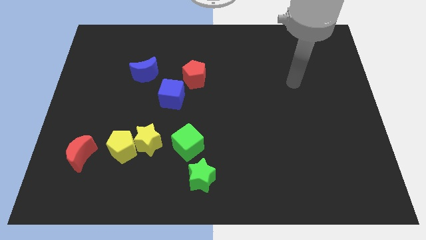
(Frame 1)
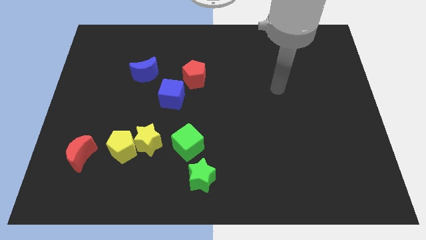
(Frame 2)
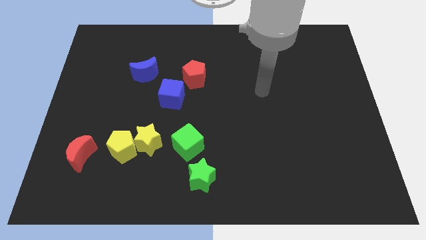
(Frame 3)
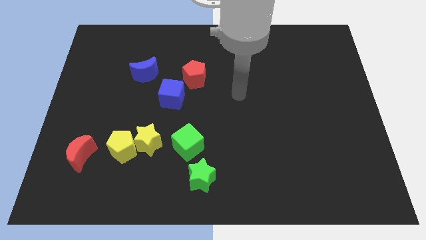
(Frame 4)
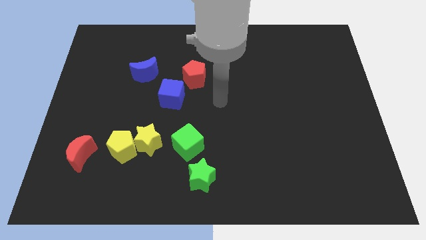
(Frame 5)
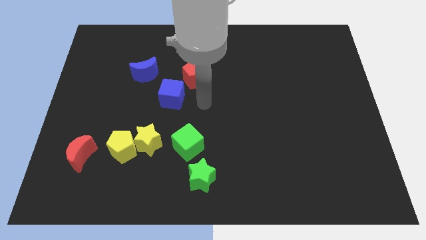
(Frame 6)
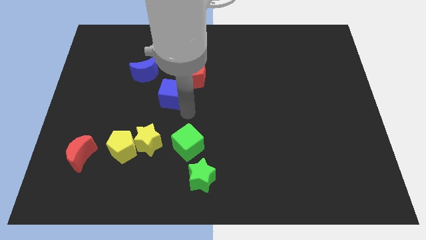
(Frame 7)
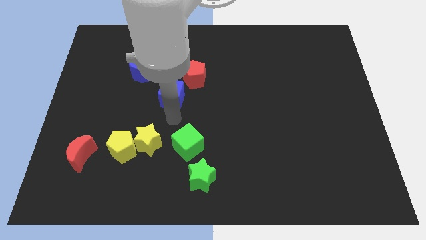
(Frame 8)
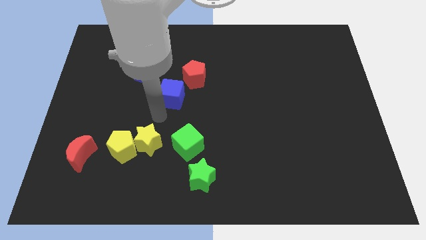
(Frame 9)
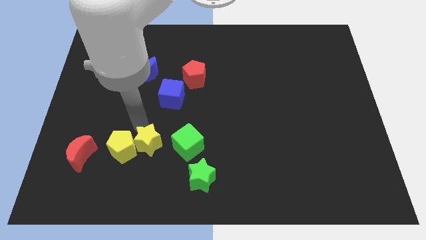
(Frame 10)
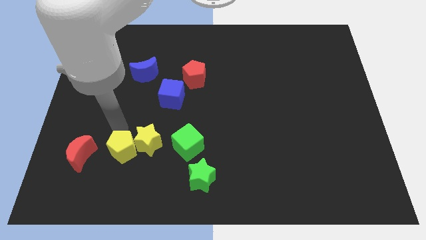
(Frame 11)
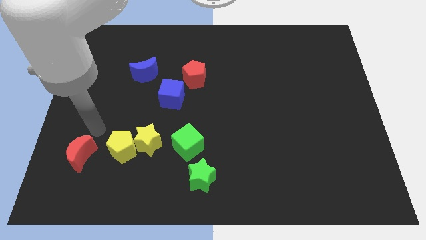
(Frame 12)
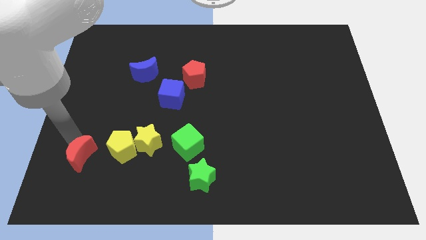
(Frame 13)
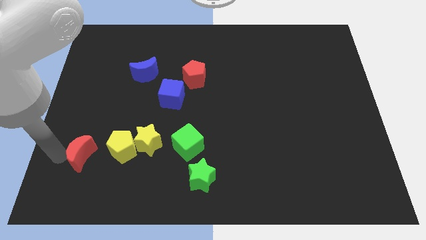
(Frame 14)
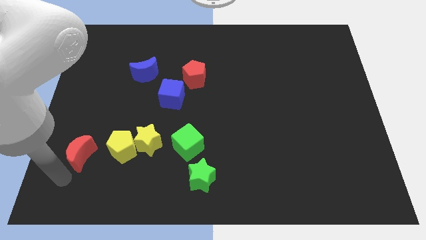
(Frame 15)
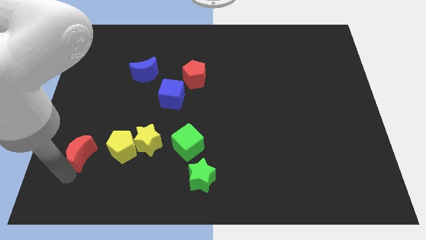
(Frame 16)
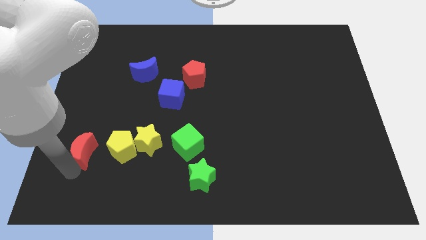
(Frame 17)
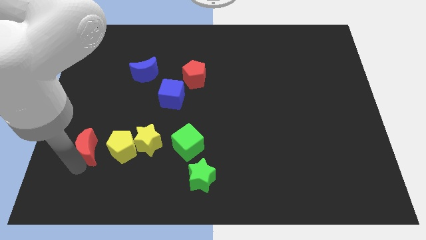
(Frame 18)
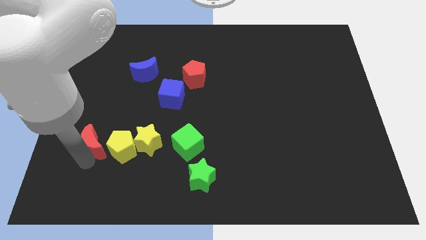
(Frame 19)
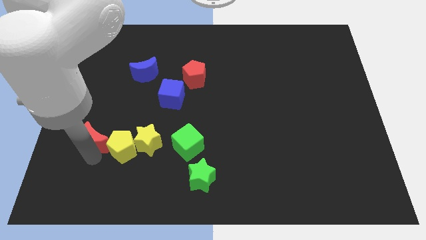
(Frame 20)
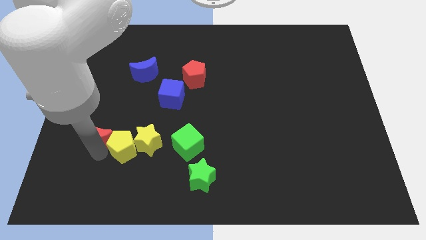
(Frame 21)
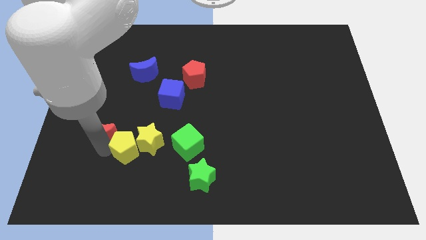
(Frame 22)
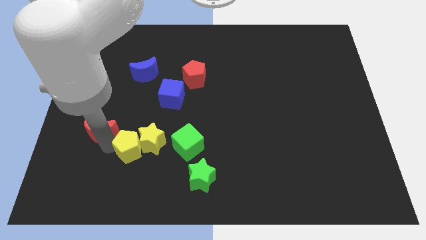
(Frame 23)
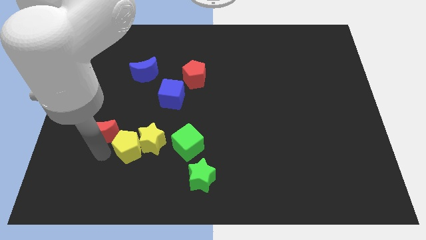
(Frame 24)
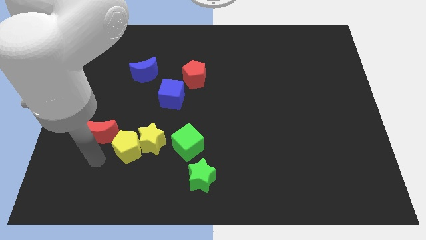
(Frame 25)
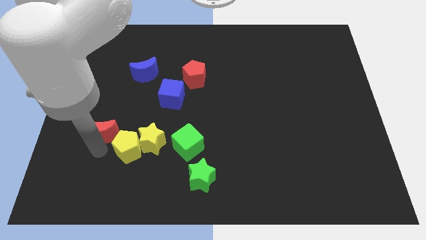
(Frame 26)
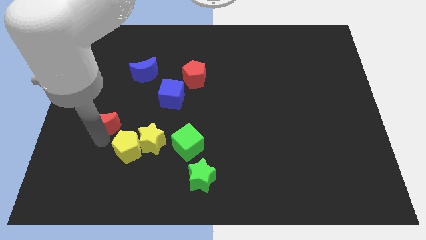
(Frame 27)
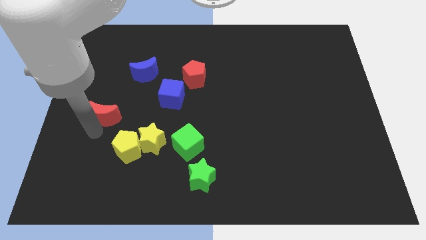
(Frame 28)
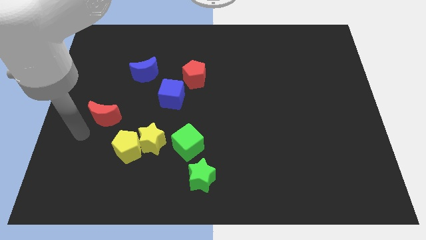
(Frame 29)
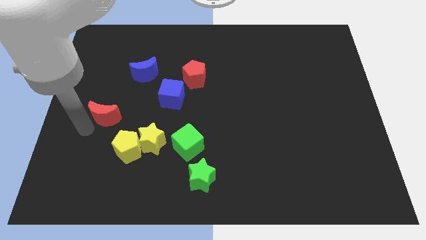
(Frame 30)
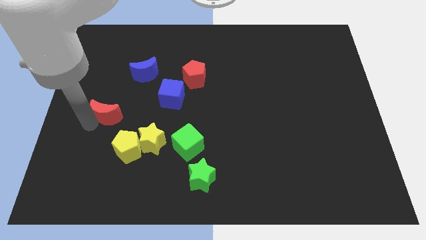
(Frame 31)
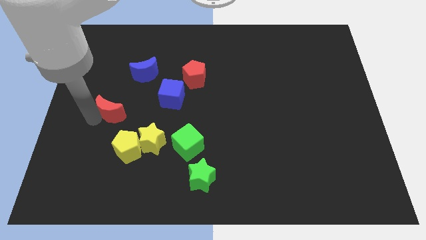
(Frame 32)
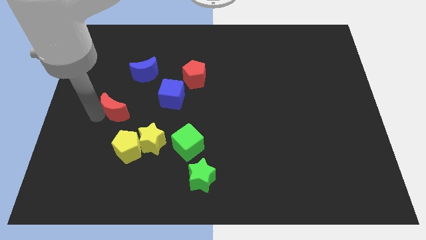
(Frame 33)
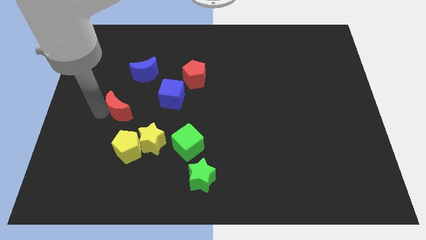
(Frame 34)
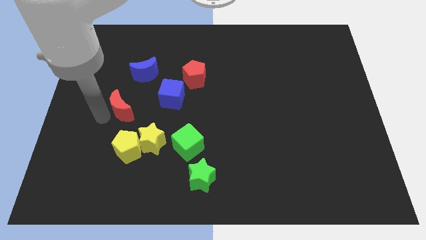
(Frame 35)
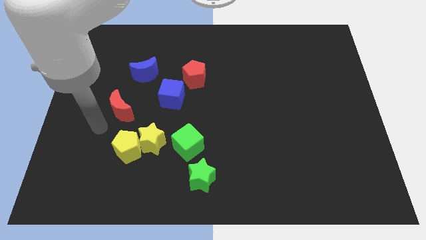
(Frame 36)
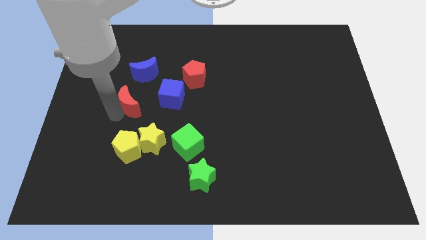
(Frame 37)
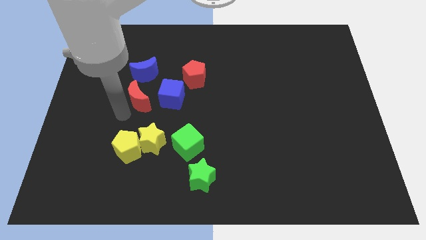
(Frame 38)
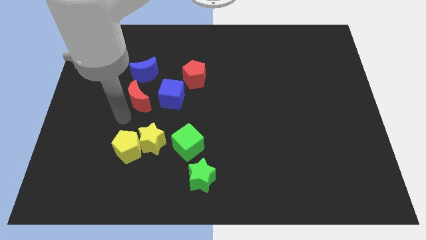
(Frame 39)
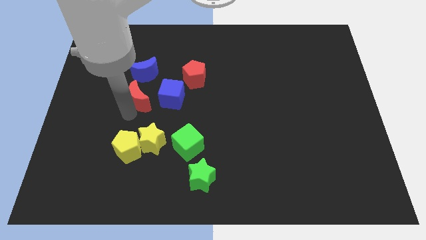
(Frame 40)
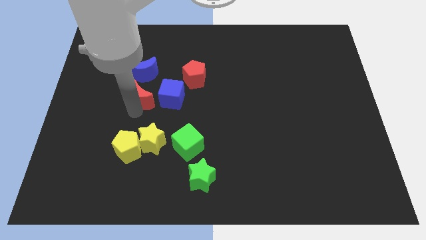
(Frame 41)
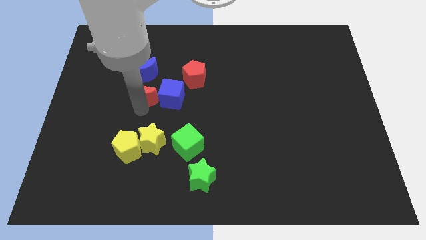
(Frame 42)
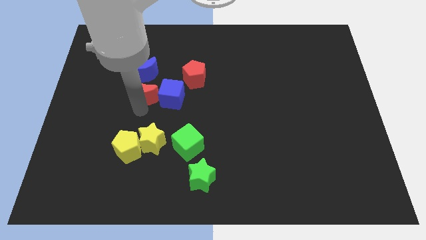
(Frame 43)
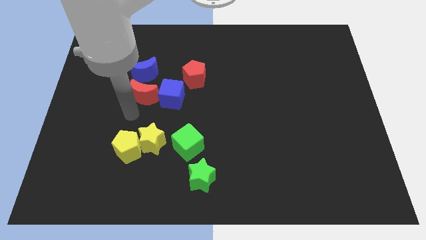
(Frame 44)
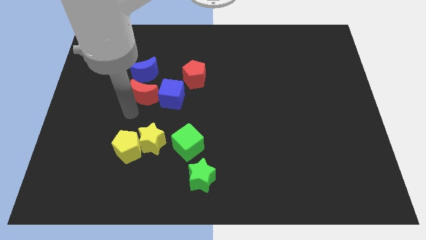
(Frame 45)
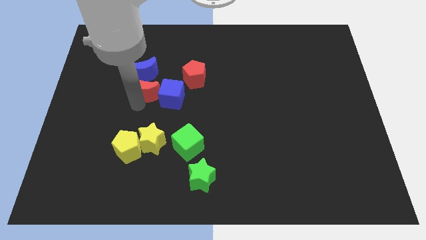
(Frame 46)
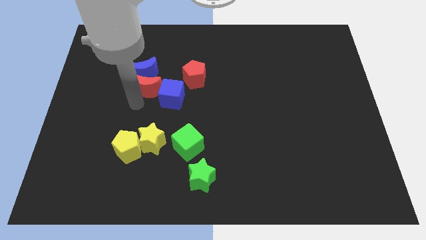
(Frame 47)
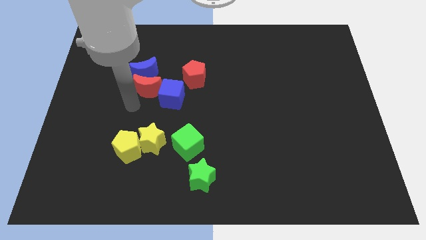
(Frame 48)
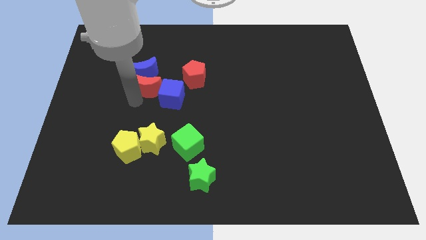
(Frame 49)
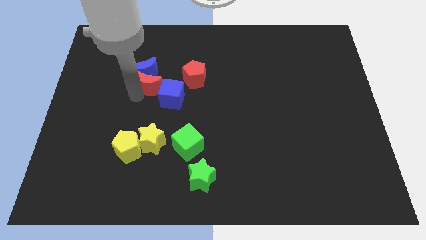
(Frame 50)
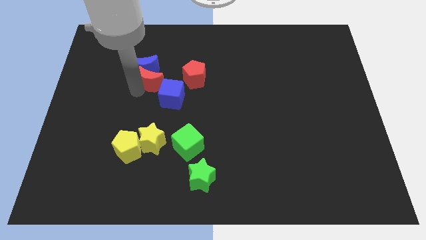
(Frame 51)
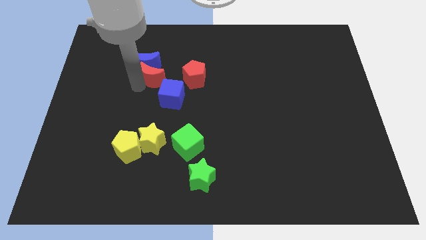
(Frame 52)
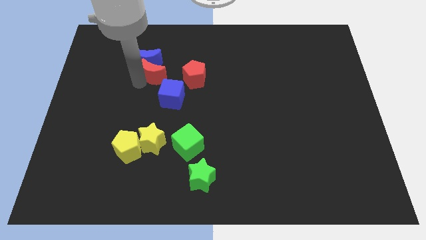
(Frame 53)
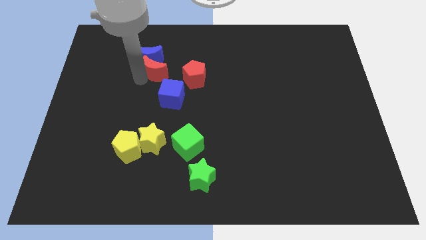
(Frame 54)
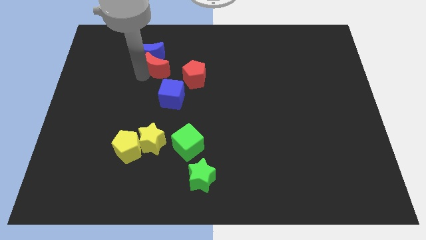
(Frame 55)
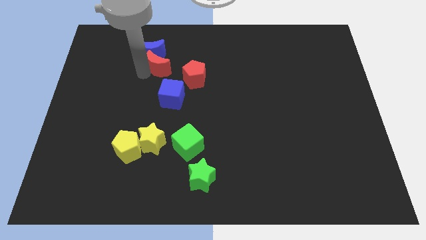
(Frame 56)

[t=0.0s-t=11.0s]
slide the red moon to the top left of the red pentagon

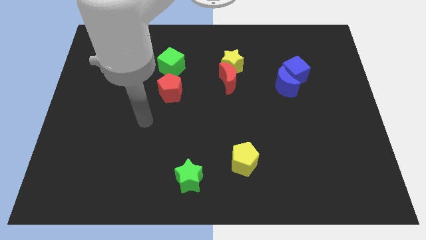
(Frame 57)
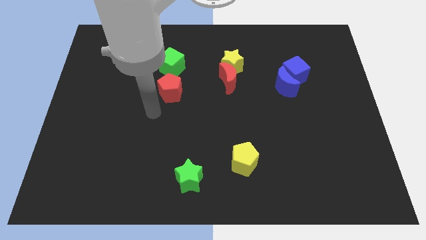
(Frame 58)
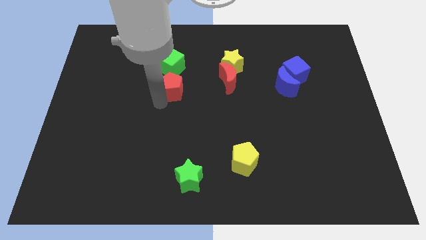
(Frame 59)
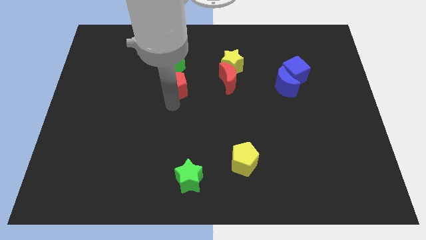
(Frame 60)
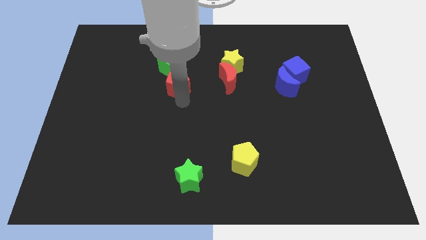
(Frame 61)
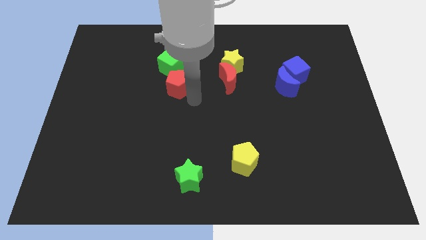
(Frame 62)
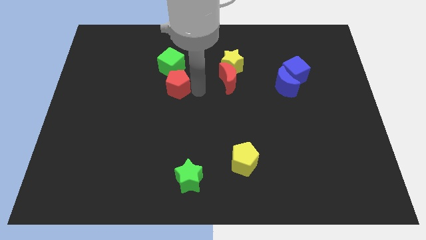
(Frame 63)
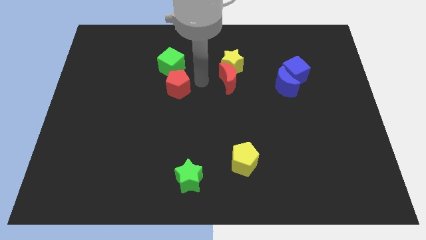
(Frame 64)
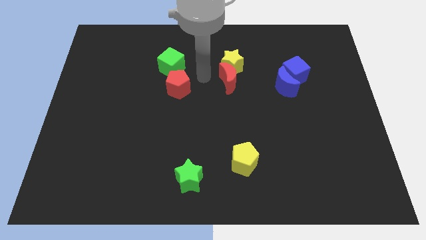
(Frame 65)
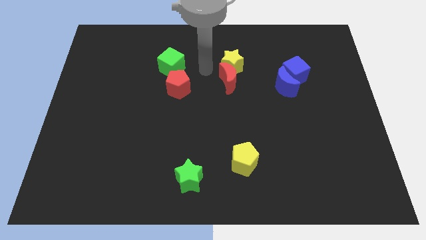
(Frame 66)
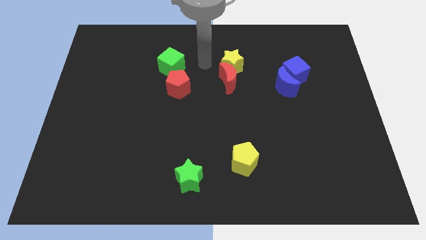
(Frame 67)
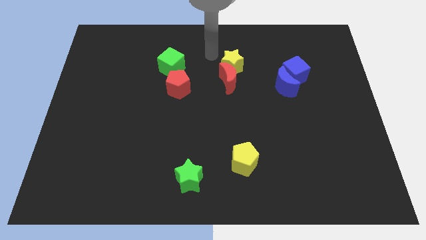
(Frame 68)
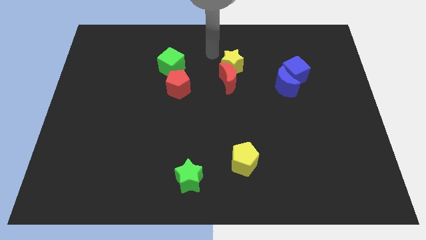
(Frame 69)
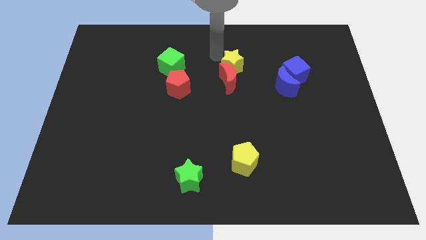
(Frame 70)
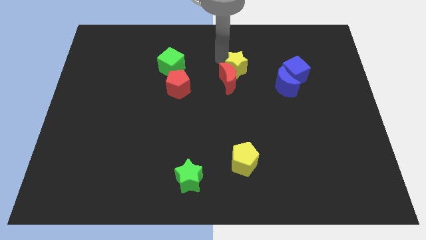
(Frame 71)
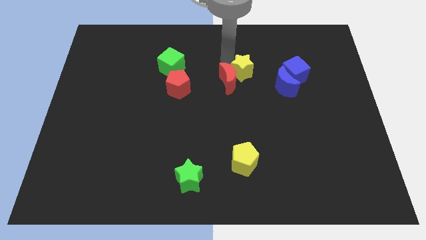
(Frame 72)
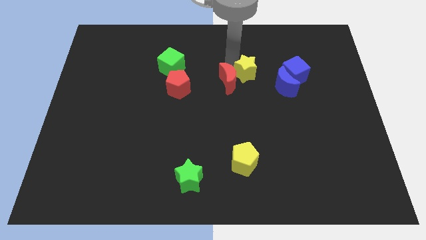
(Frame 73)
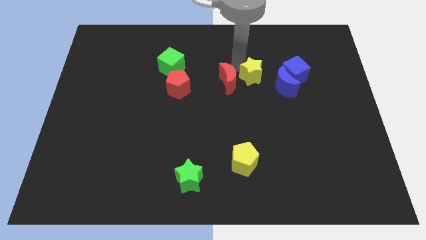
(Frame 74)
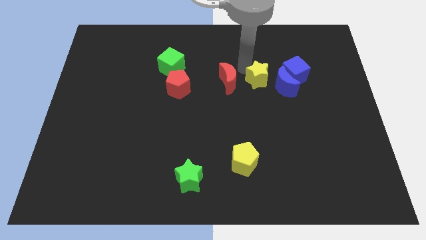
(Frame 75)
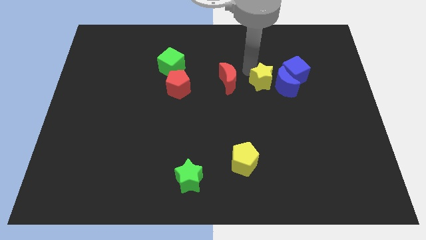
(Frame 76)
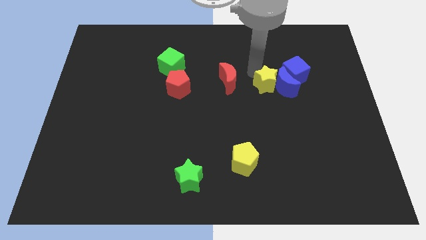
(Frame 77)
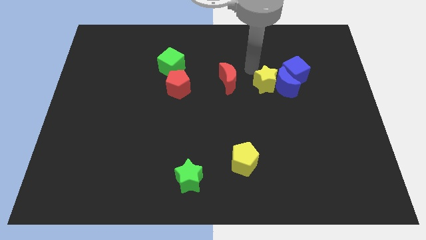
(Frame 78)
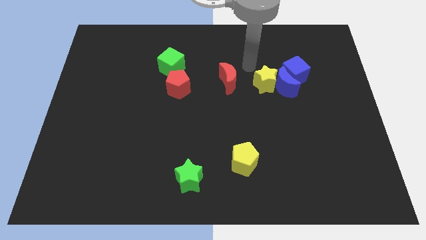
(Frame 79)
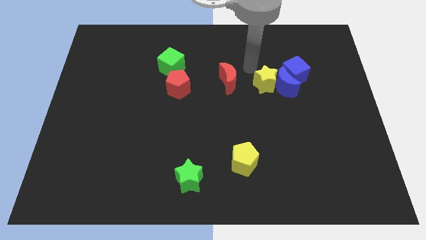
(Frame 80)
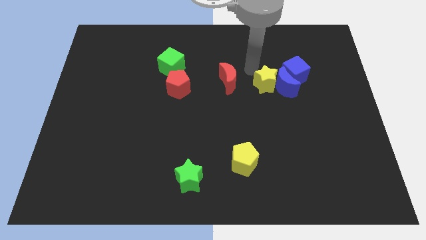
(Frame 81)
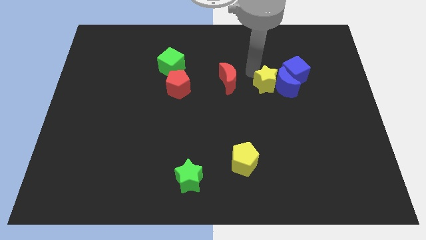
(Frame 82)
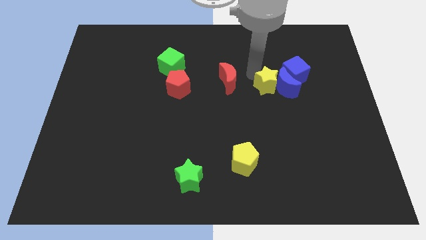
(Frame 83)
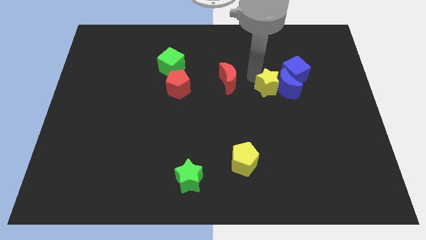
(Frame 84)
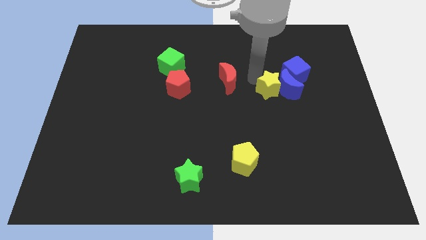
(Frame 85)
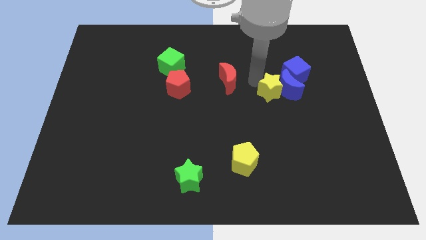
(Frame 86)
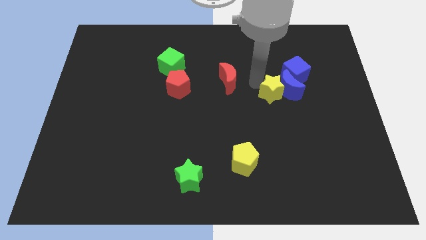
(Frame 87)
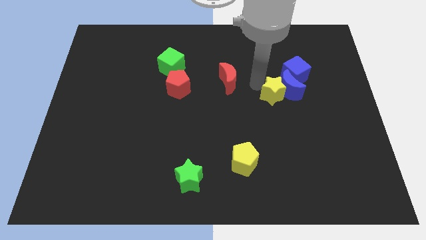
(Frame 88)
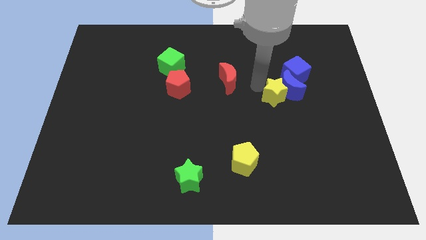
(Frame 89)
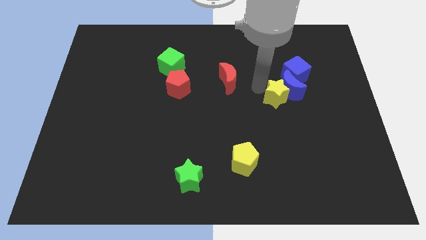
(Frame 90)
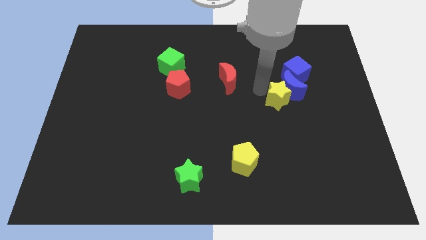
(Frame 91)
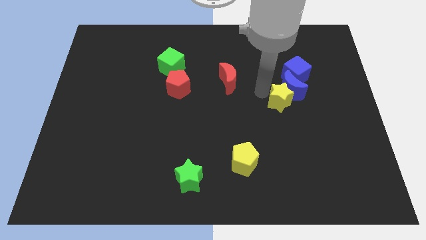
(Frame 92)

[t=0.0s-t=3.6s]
slide the yellow star to the bottom of the blue cube
